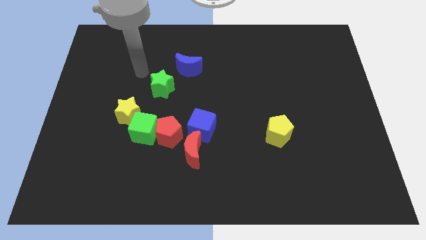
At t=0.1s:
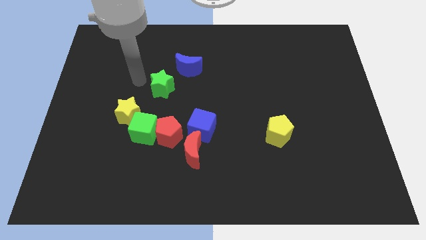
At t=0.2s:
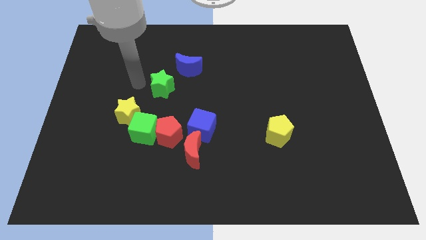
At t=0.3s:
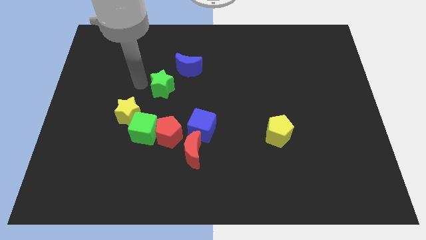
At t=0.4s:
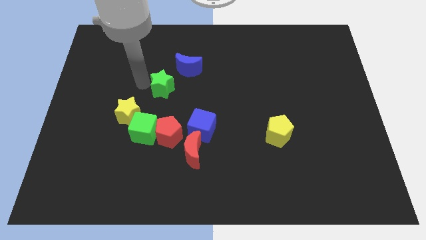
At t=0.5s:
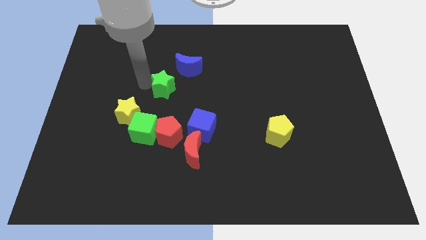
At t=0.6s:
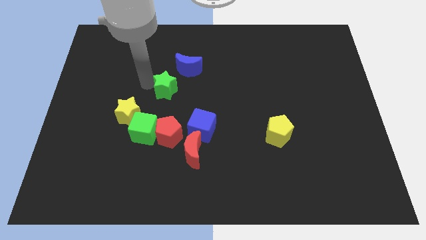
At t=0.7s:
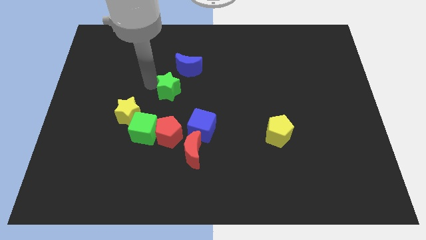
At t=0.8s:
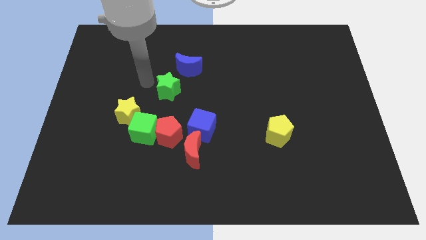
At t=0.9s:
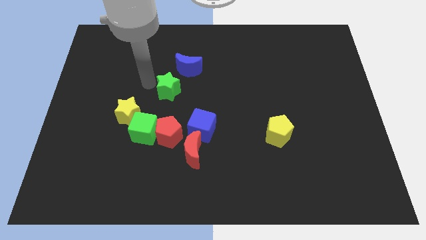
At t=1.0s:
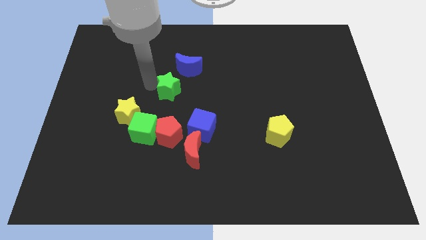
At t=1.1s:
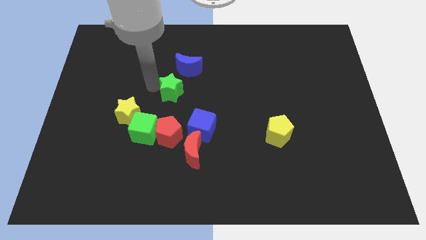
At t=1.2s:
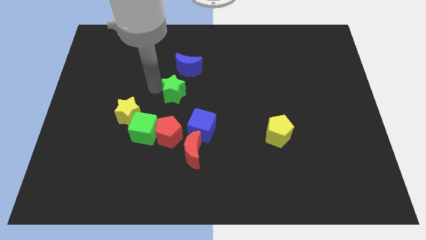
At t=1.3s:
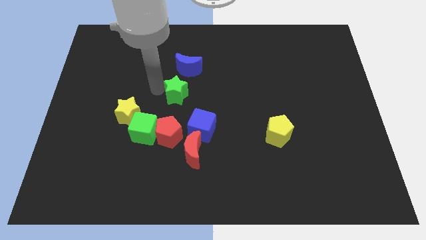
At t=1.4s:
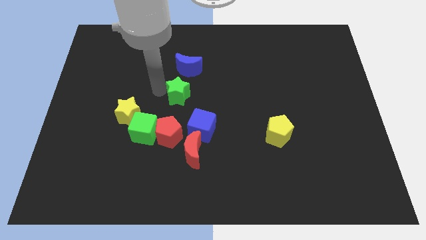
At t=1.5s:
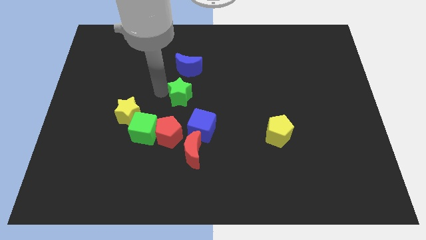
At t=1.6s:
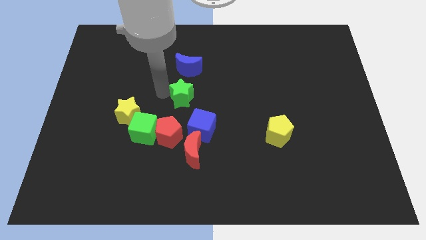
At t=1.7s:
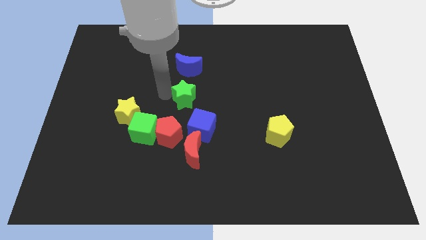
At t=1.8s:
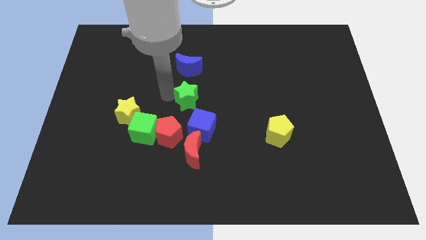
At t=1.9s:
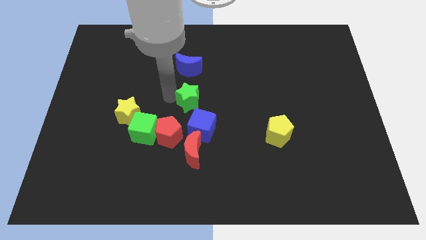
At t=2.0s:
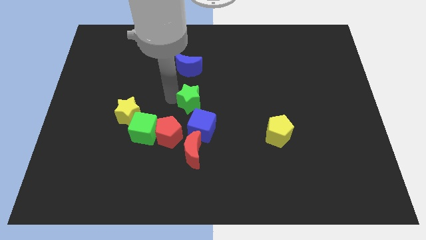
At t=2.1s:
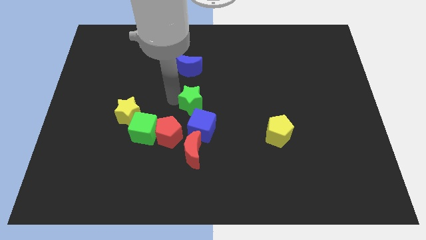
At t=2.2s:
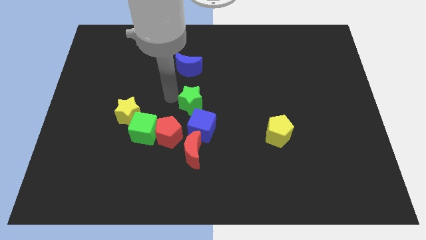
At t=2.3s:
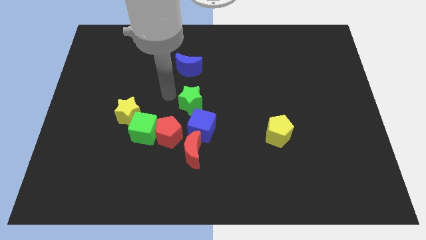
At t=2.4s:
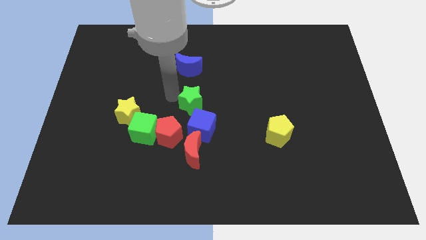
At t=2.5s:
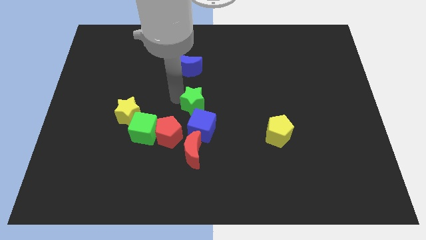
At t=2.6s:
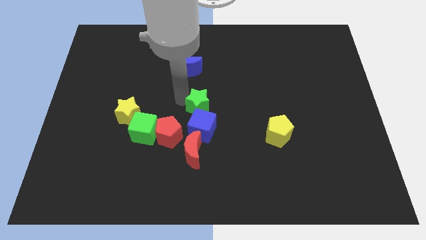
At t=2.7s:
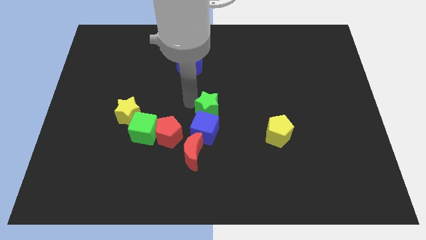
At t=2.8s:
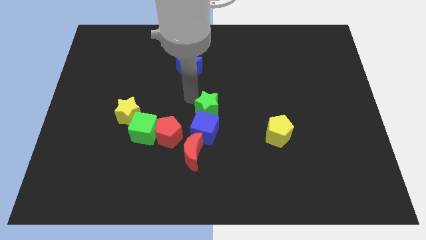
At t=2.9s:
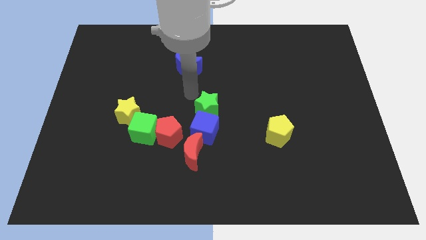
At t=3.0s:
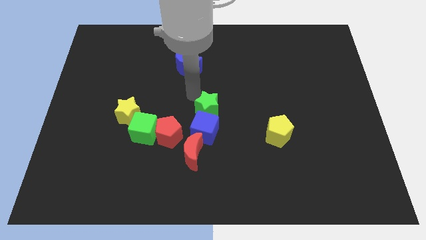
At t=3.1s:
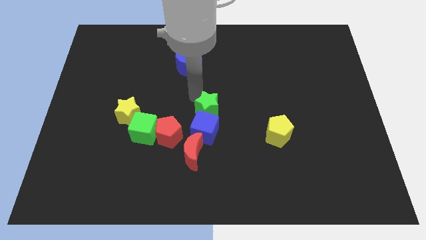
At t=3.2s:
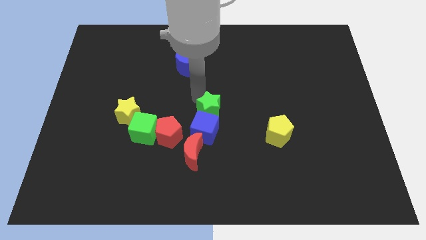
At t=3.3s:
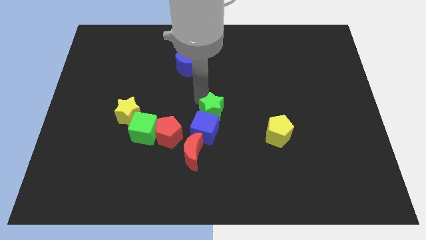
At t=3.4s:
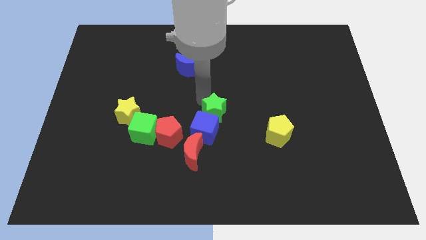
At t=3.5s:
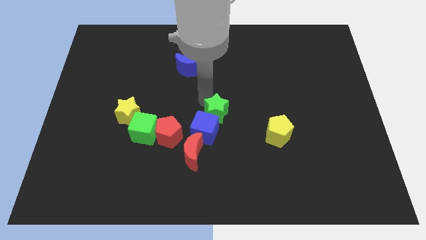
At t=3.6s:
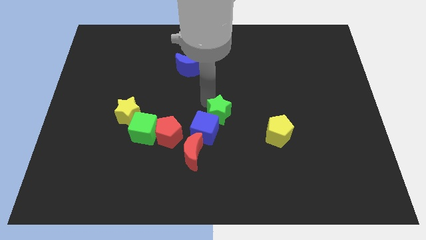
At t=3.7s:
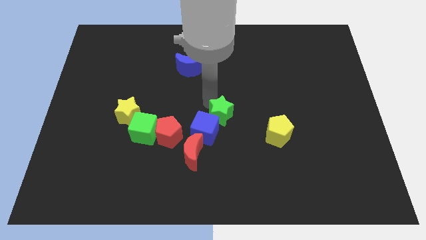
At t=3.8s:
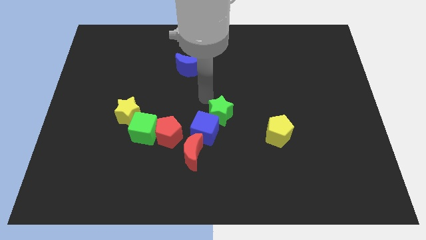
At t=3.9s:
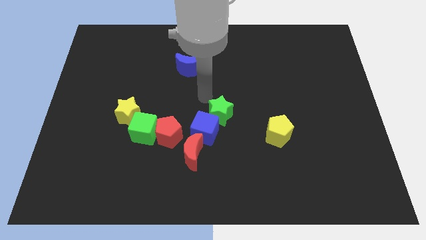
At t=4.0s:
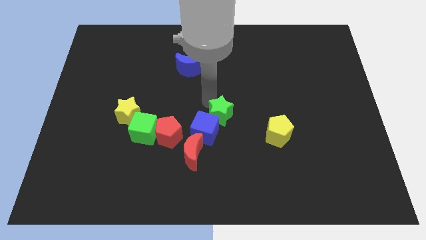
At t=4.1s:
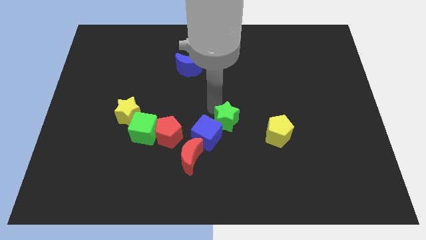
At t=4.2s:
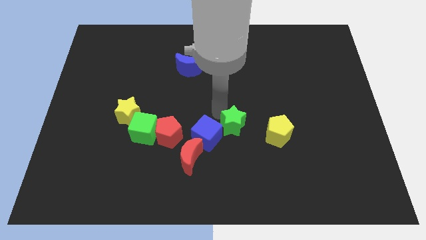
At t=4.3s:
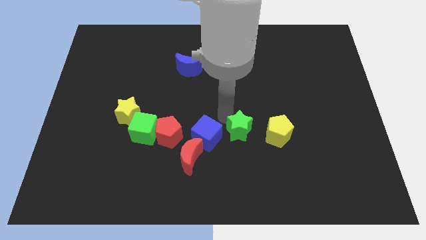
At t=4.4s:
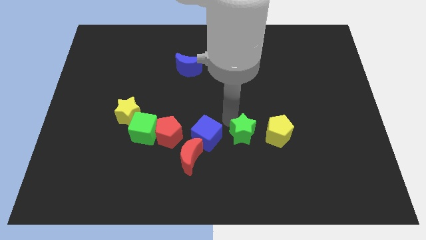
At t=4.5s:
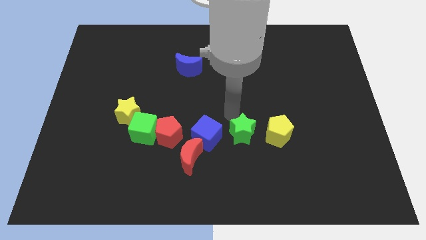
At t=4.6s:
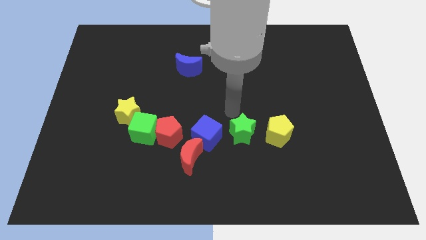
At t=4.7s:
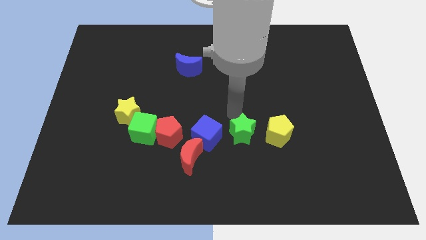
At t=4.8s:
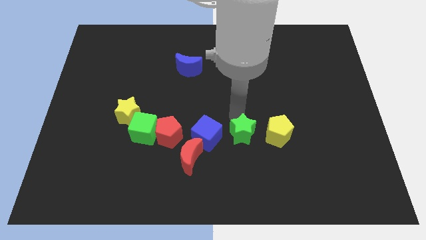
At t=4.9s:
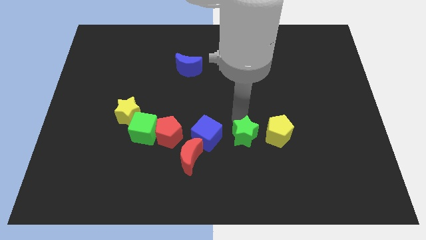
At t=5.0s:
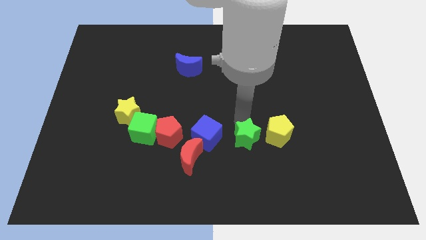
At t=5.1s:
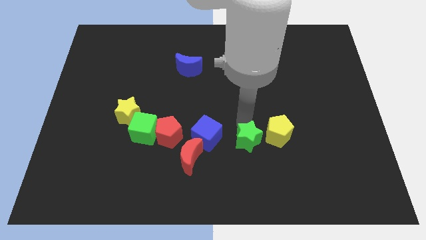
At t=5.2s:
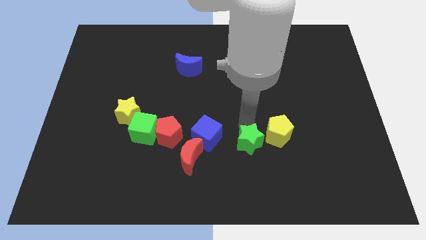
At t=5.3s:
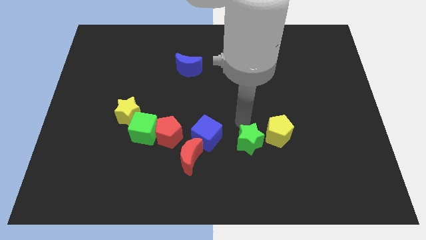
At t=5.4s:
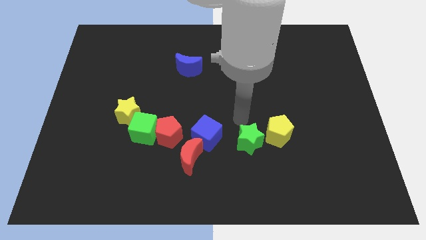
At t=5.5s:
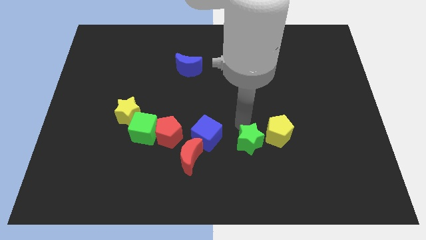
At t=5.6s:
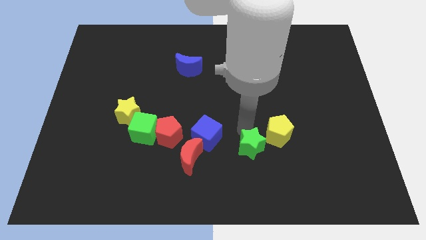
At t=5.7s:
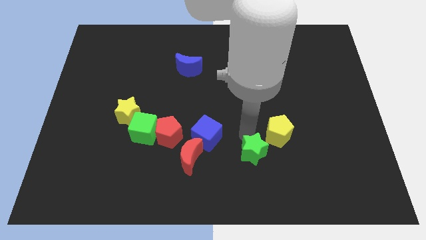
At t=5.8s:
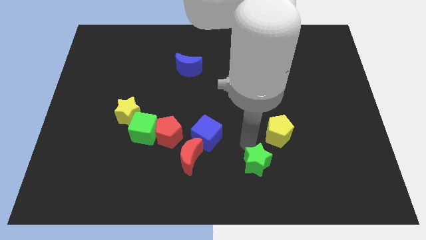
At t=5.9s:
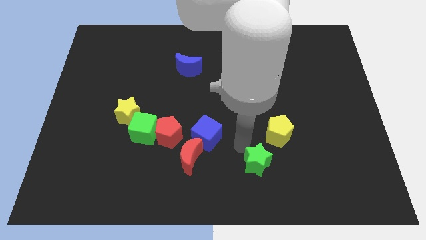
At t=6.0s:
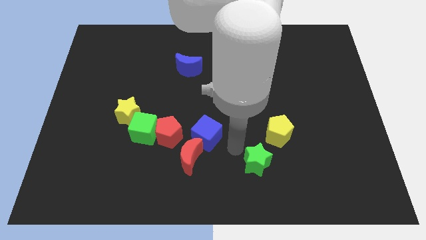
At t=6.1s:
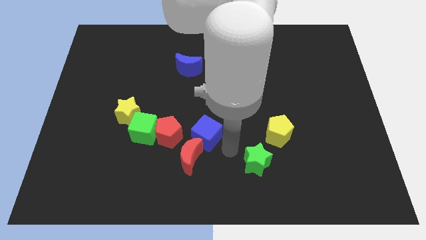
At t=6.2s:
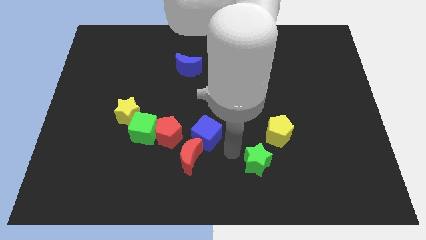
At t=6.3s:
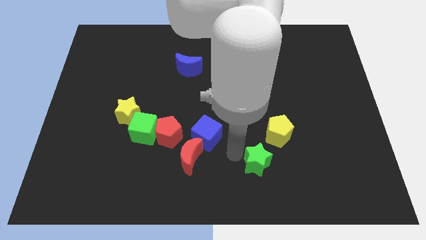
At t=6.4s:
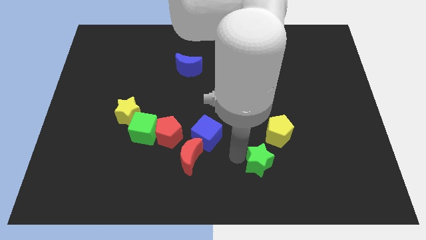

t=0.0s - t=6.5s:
put the green star below the yellow pentagon
